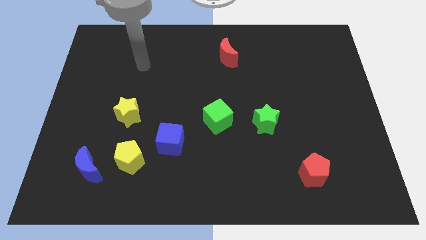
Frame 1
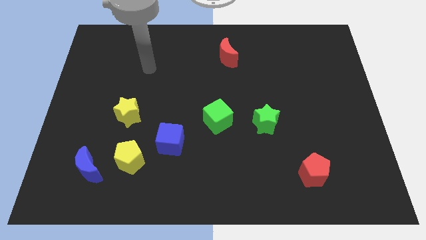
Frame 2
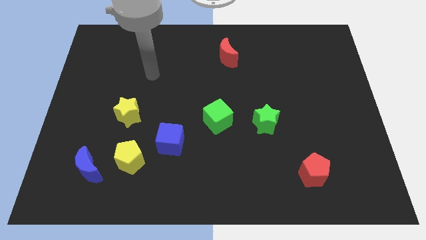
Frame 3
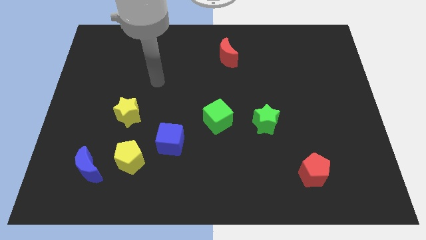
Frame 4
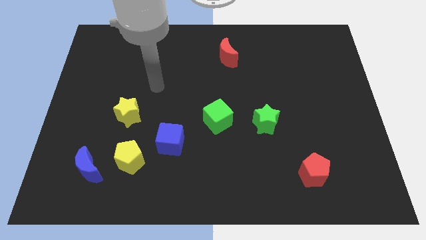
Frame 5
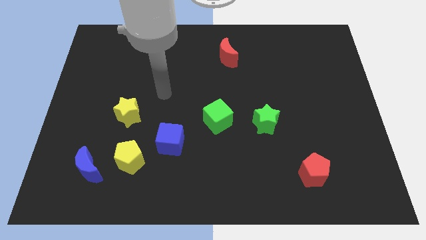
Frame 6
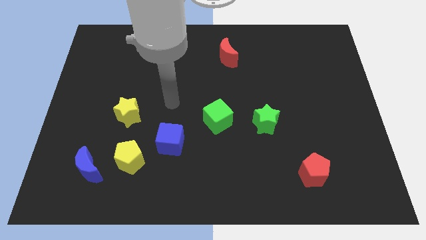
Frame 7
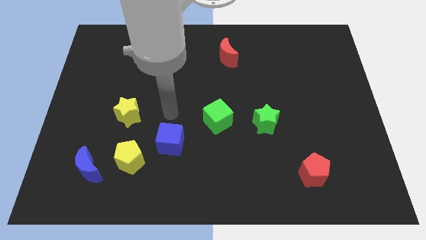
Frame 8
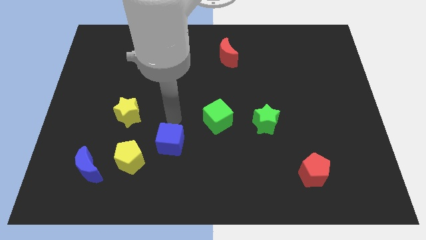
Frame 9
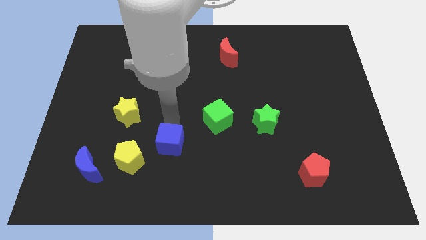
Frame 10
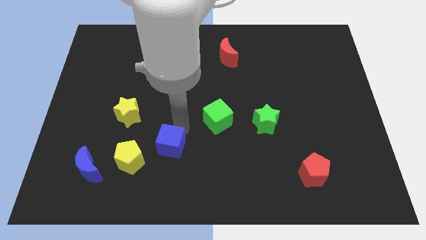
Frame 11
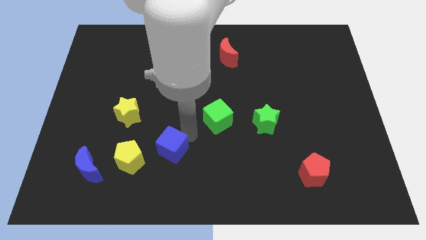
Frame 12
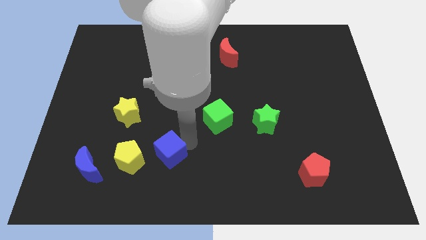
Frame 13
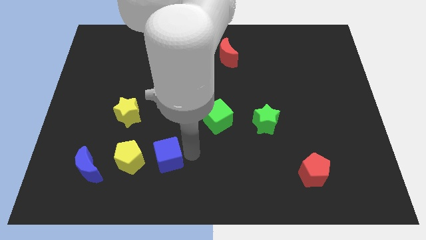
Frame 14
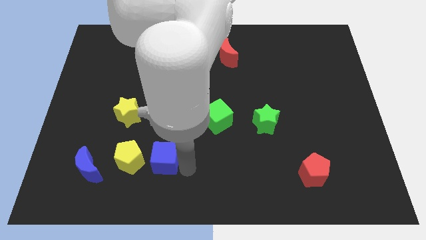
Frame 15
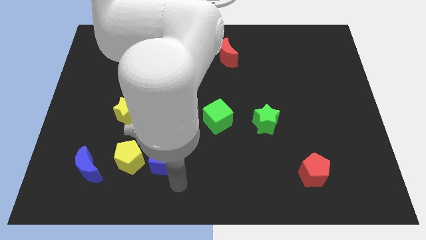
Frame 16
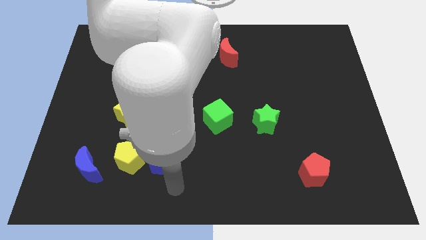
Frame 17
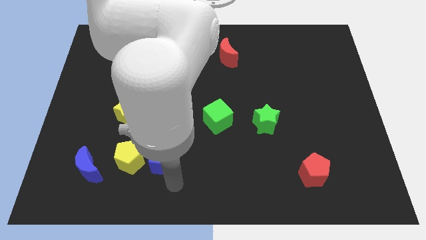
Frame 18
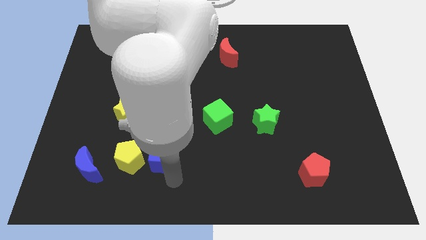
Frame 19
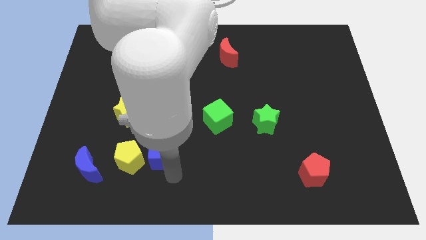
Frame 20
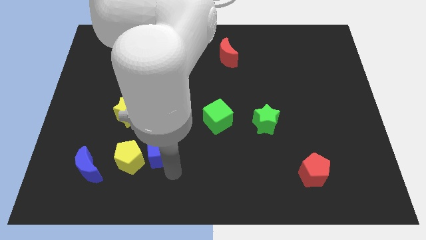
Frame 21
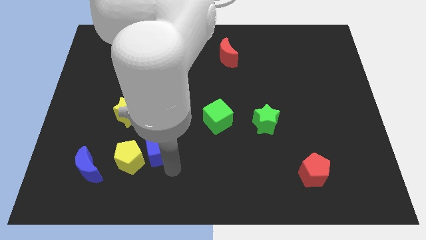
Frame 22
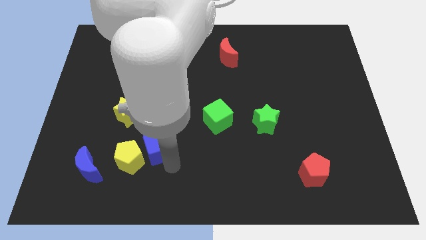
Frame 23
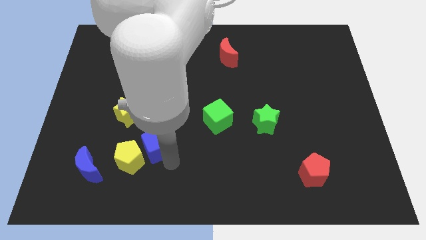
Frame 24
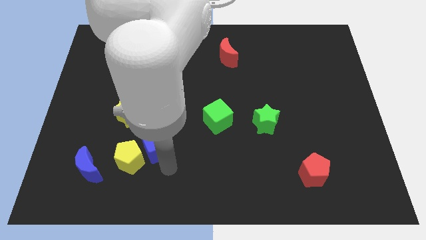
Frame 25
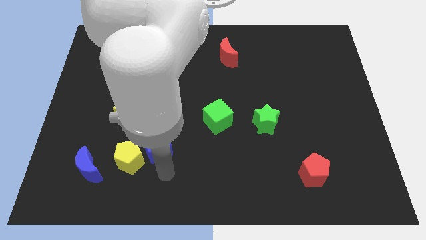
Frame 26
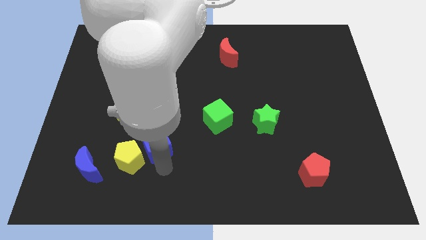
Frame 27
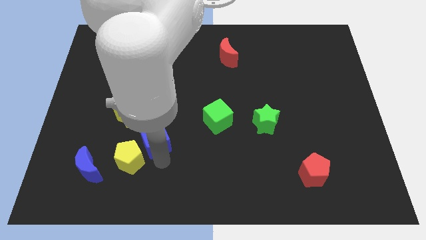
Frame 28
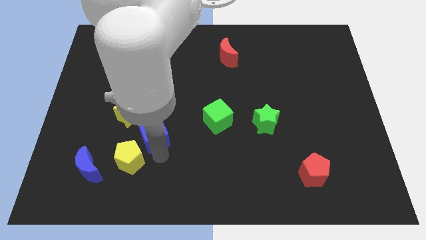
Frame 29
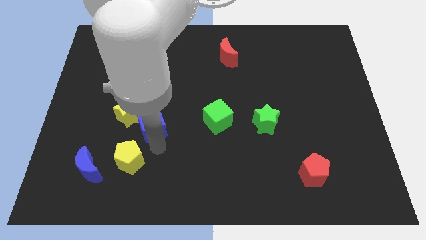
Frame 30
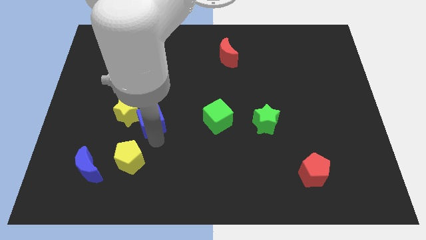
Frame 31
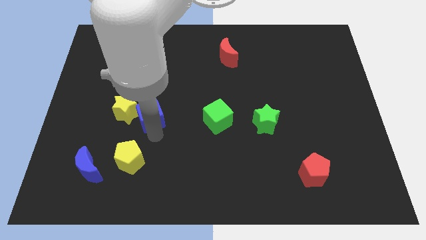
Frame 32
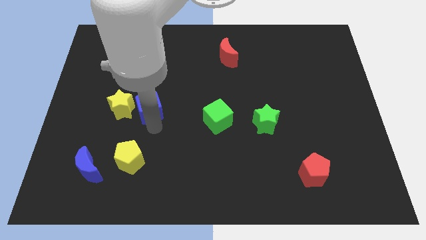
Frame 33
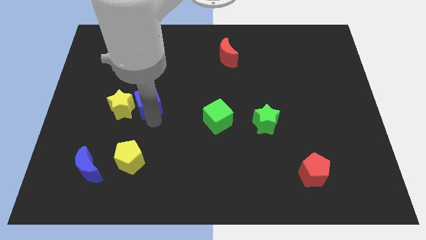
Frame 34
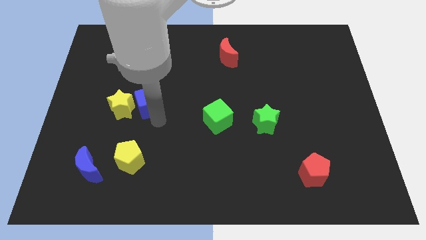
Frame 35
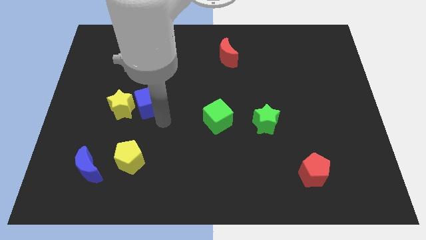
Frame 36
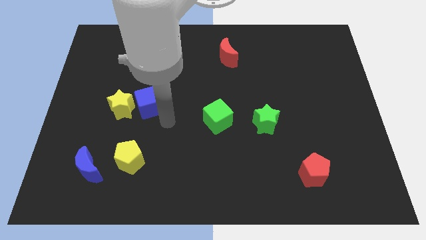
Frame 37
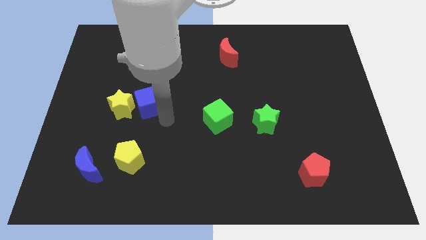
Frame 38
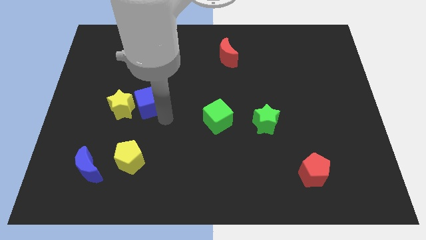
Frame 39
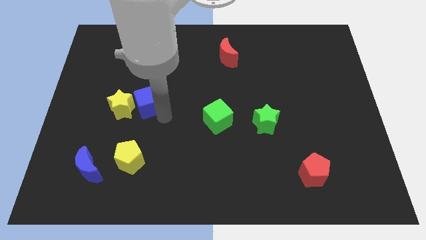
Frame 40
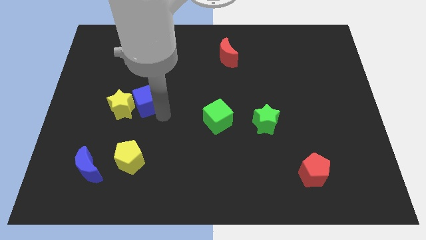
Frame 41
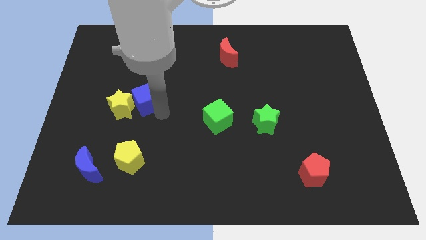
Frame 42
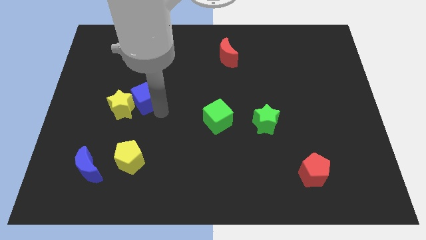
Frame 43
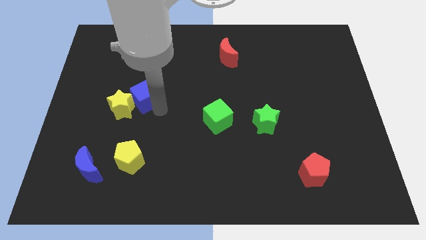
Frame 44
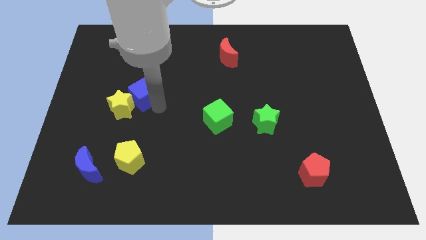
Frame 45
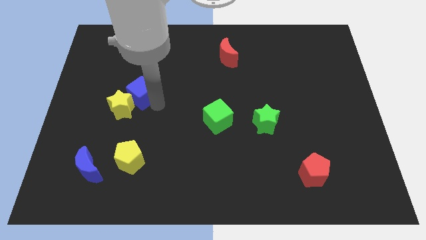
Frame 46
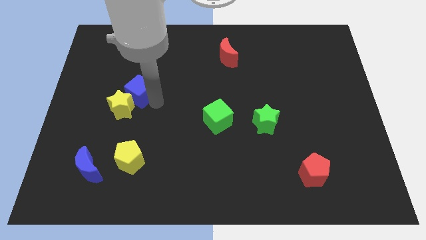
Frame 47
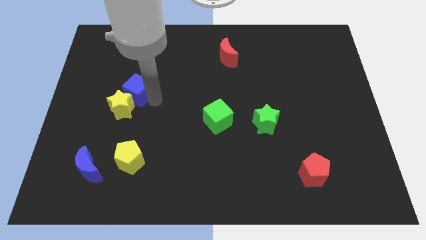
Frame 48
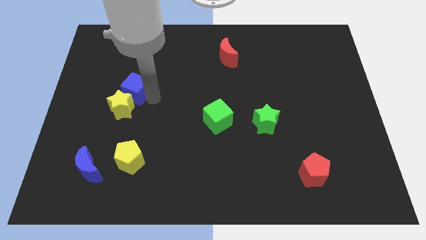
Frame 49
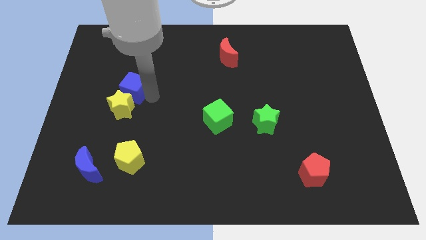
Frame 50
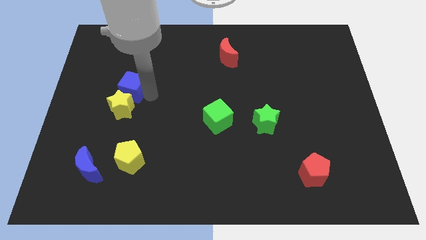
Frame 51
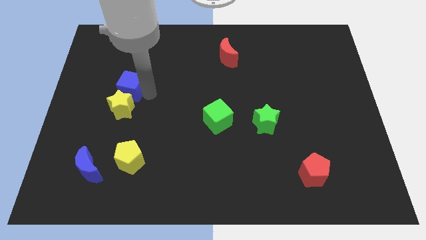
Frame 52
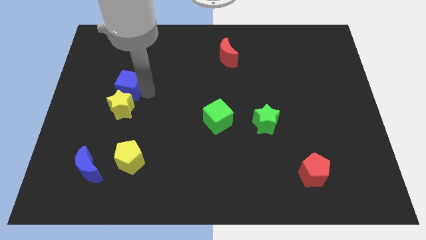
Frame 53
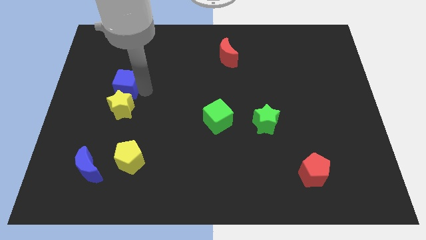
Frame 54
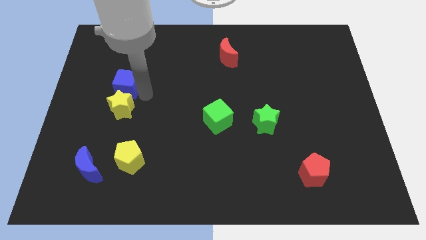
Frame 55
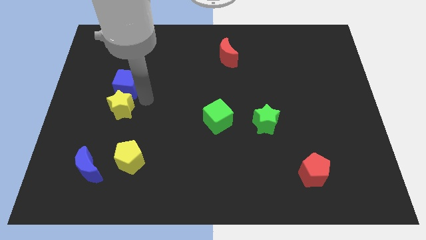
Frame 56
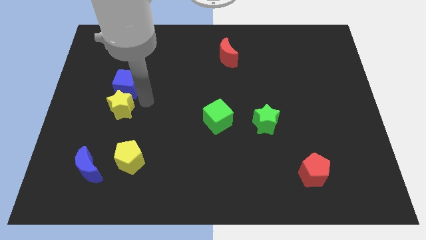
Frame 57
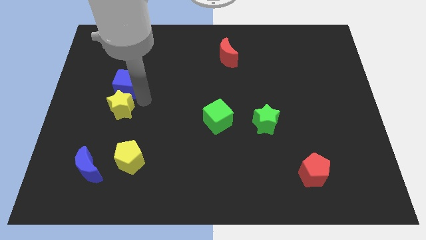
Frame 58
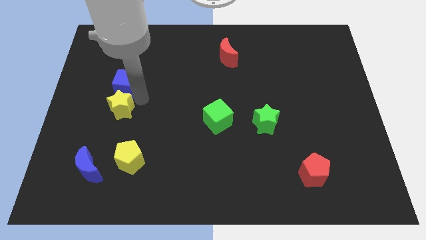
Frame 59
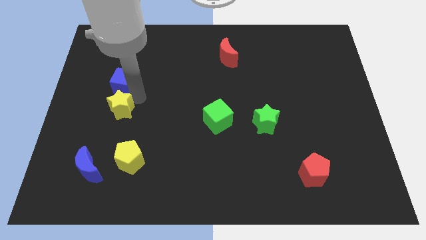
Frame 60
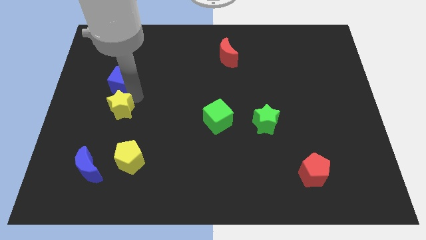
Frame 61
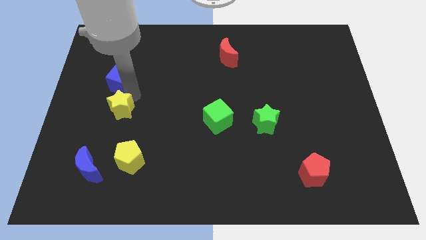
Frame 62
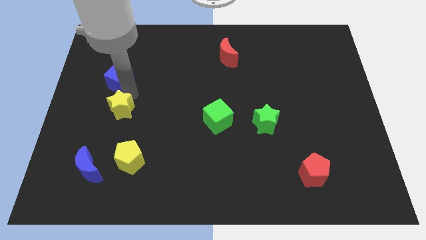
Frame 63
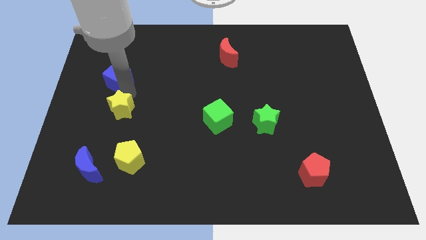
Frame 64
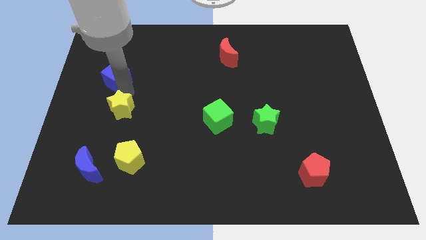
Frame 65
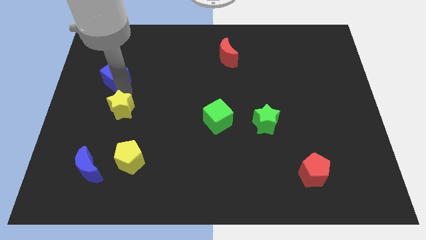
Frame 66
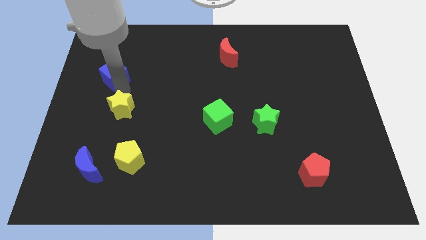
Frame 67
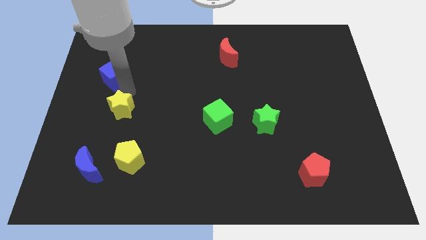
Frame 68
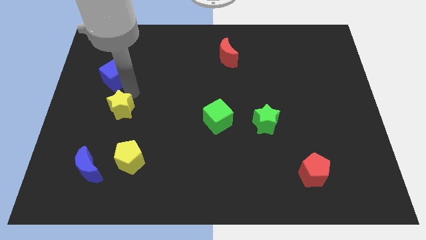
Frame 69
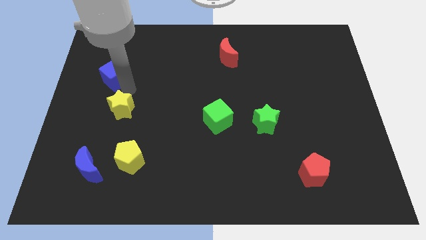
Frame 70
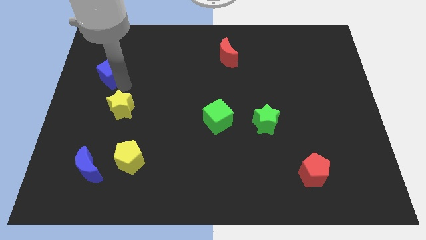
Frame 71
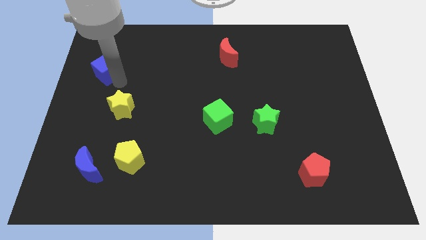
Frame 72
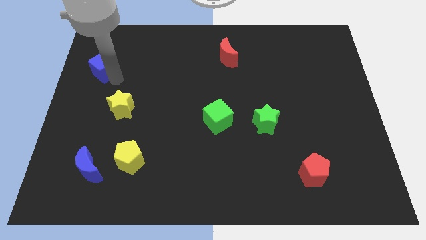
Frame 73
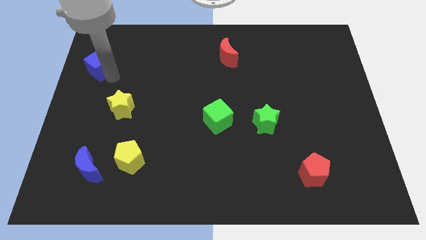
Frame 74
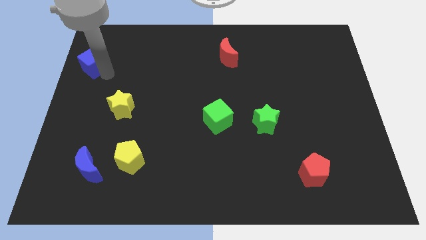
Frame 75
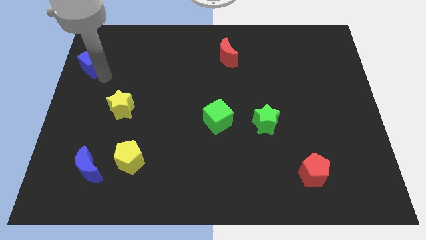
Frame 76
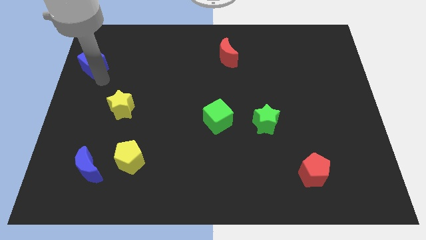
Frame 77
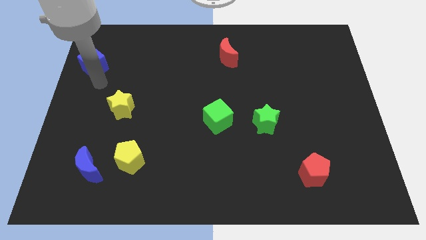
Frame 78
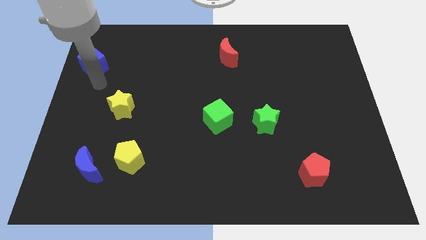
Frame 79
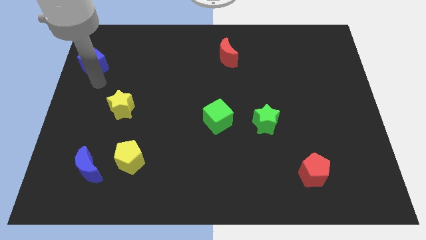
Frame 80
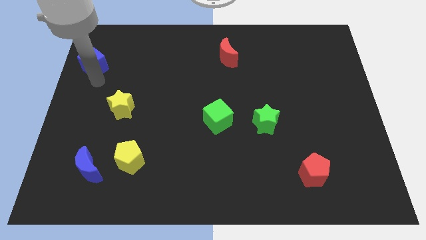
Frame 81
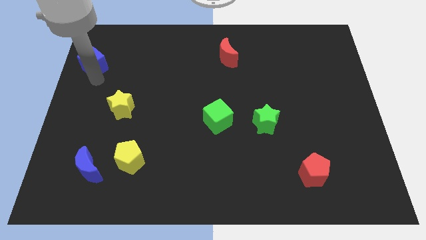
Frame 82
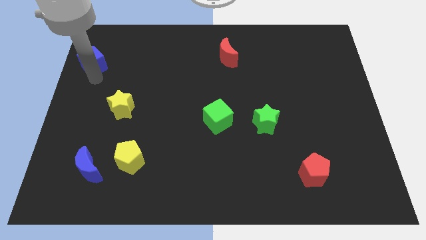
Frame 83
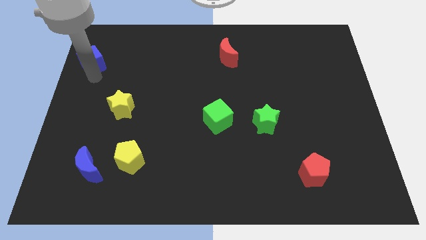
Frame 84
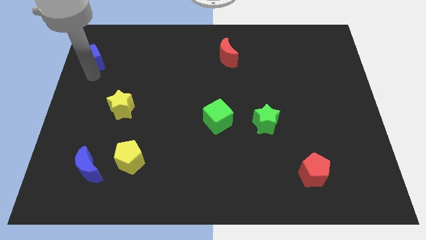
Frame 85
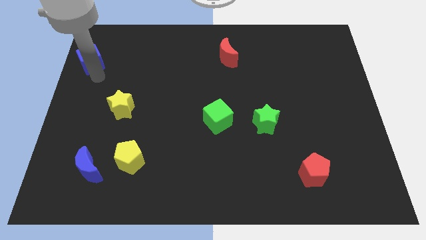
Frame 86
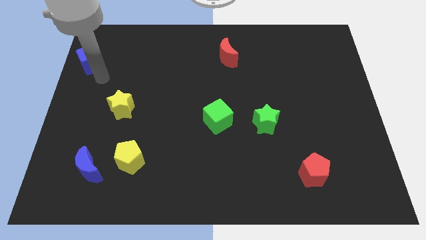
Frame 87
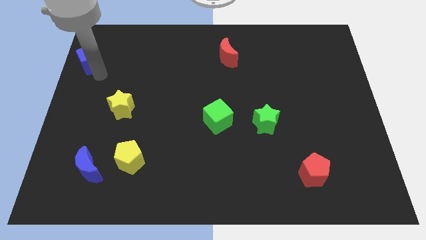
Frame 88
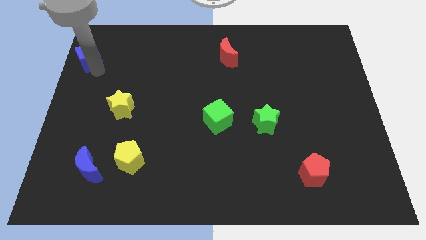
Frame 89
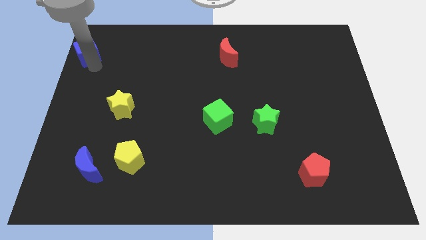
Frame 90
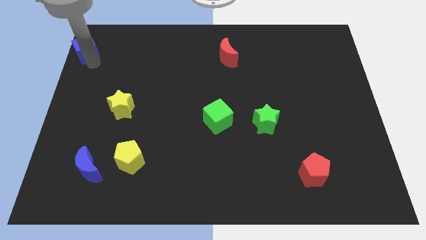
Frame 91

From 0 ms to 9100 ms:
move the blue cube to the top left of the board
